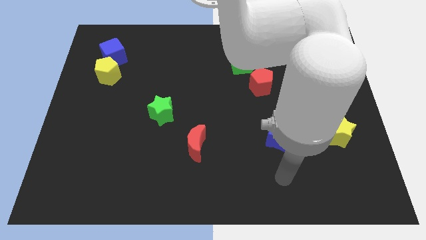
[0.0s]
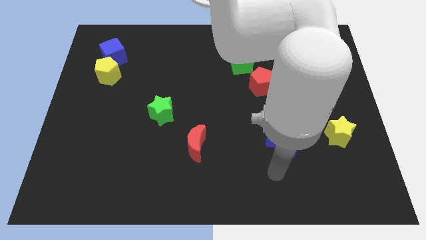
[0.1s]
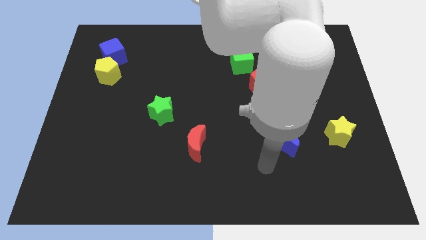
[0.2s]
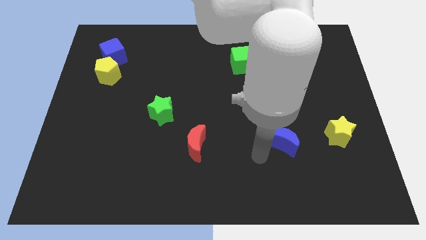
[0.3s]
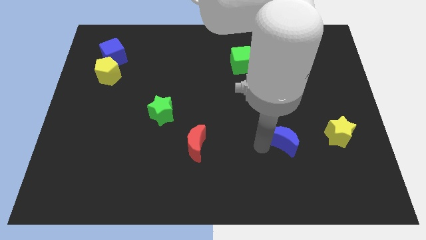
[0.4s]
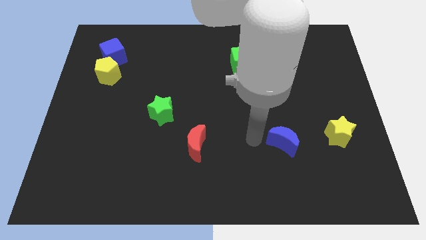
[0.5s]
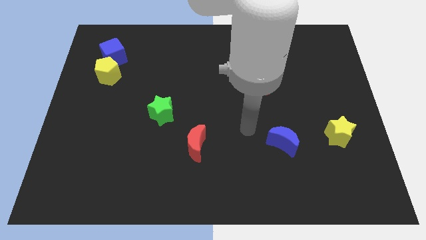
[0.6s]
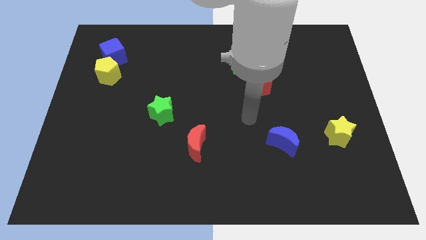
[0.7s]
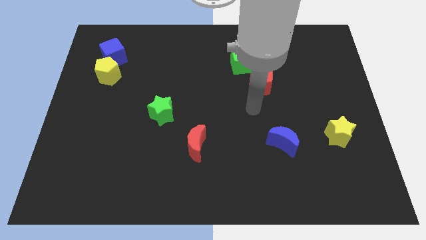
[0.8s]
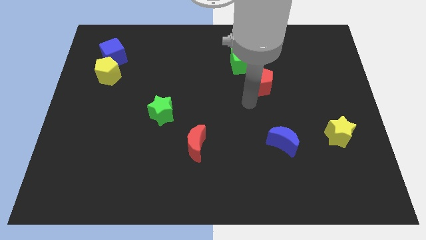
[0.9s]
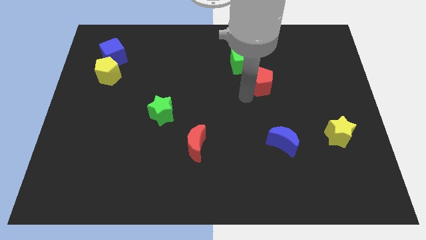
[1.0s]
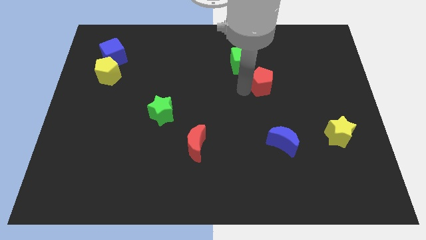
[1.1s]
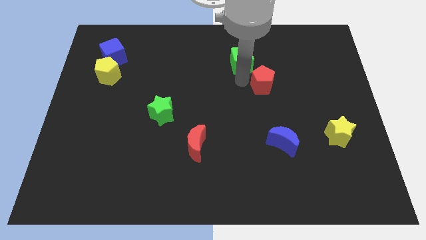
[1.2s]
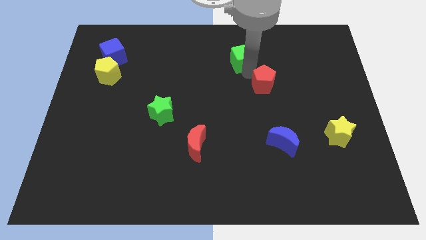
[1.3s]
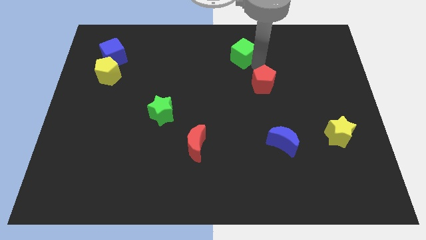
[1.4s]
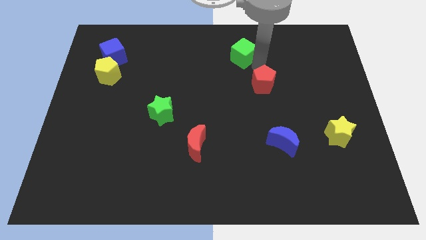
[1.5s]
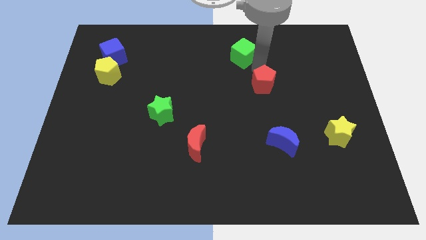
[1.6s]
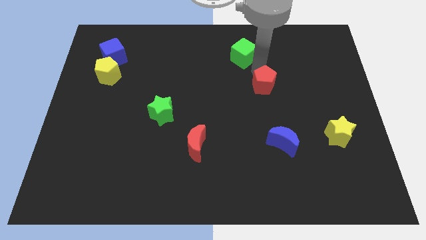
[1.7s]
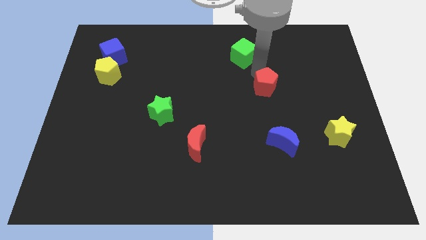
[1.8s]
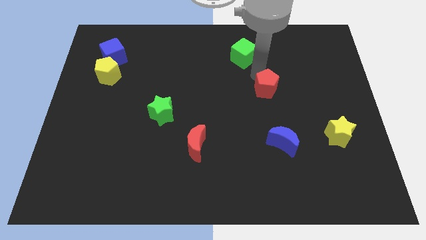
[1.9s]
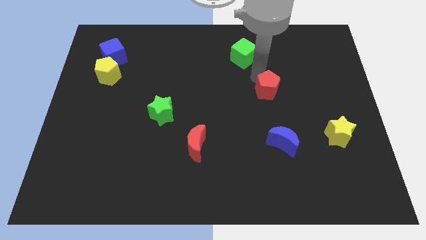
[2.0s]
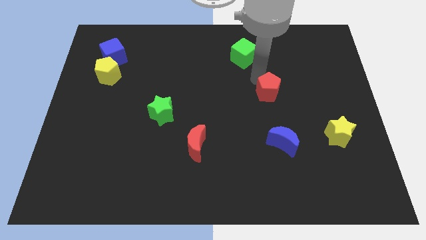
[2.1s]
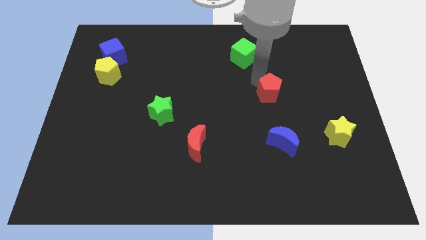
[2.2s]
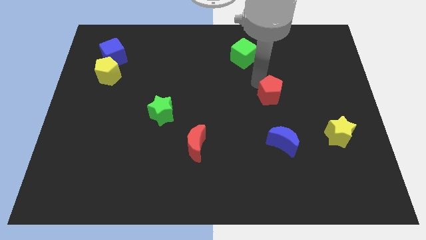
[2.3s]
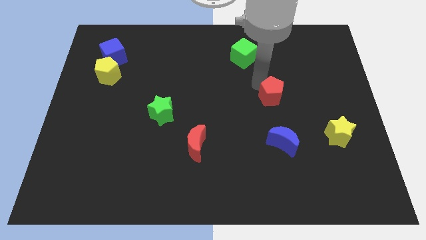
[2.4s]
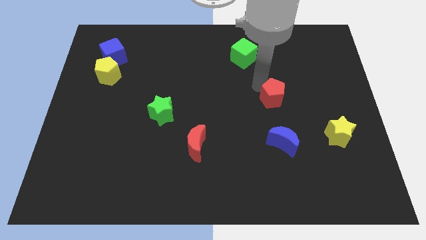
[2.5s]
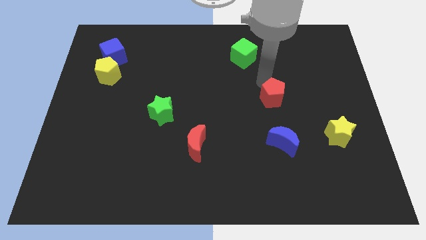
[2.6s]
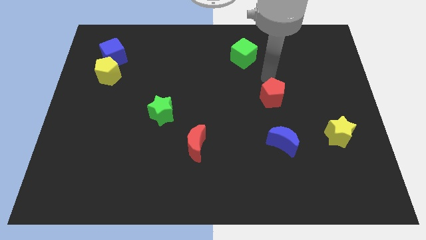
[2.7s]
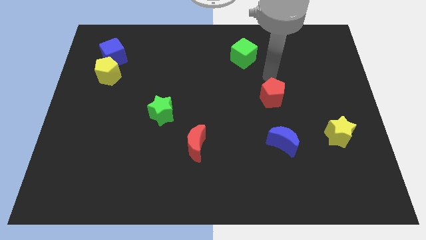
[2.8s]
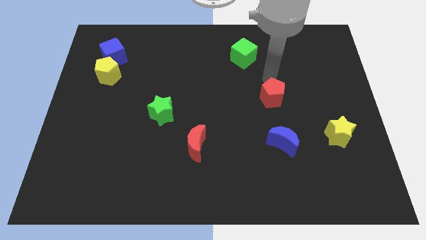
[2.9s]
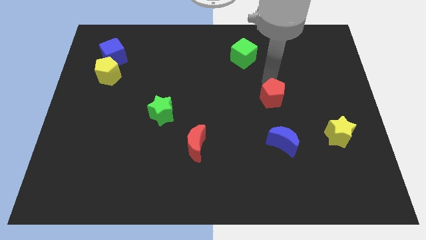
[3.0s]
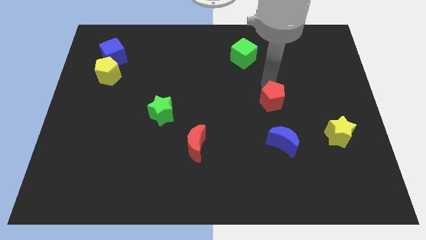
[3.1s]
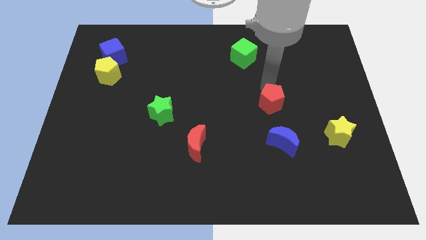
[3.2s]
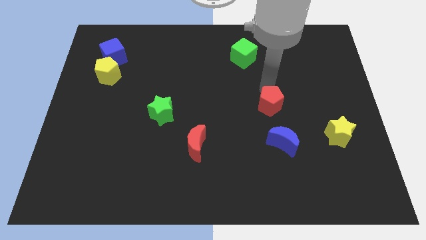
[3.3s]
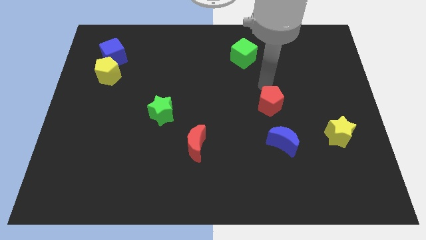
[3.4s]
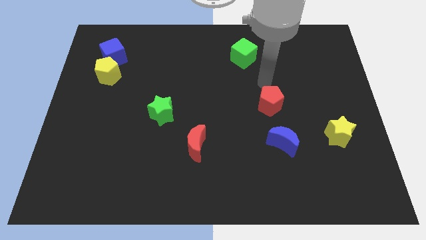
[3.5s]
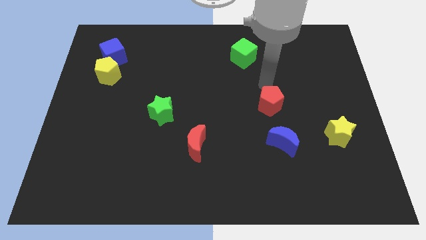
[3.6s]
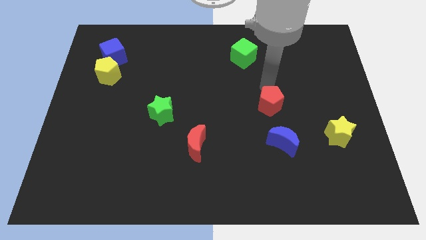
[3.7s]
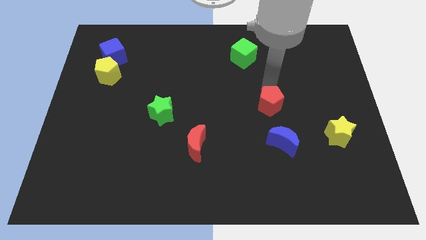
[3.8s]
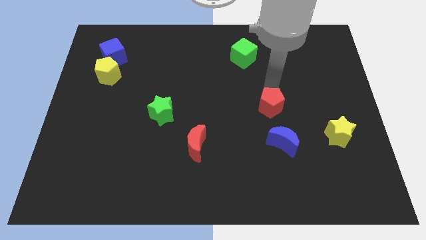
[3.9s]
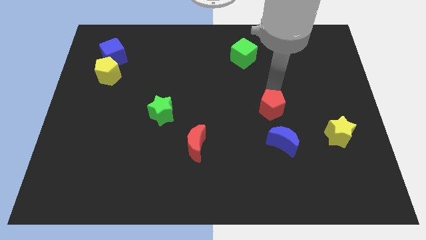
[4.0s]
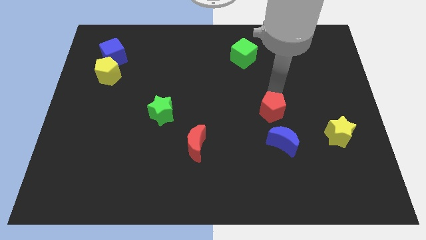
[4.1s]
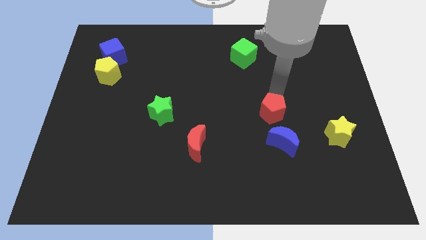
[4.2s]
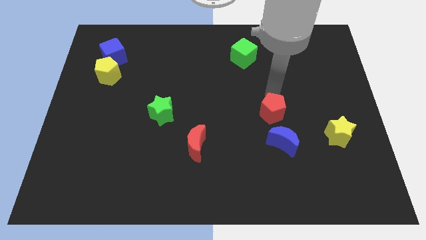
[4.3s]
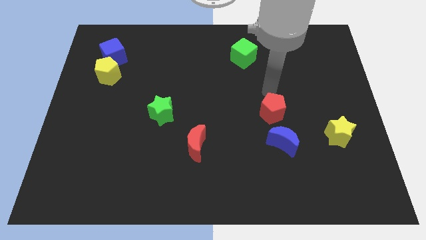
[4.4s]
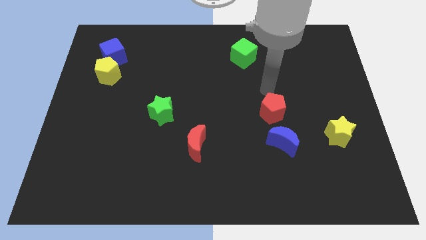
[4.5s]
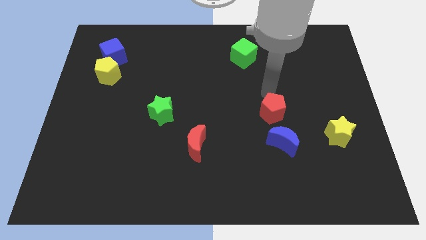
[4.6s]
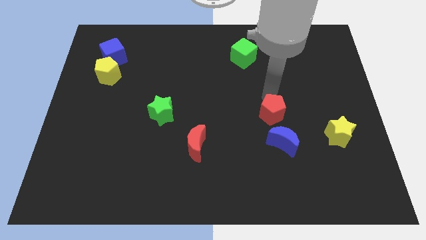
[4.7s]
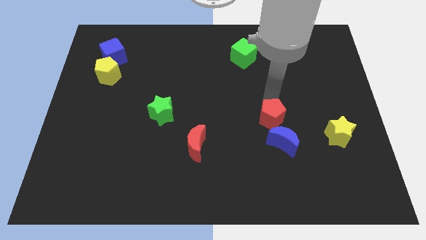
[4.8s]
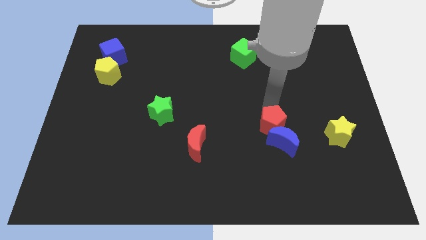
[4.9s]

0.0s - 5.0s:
put the red pentagon next to the blue moon

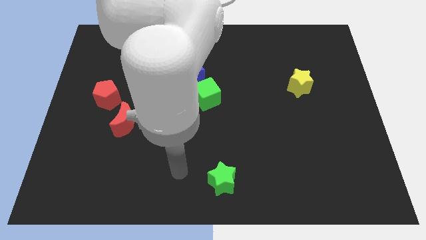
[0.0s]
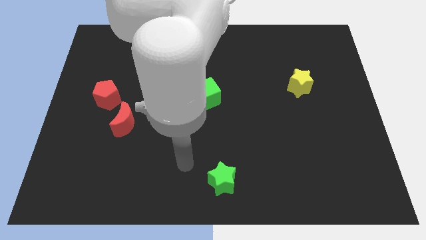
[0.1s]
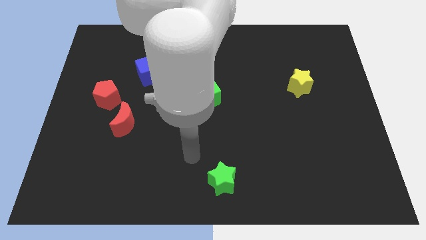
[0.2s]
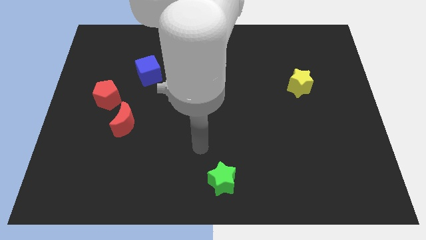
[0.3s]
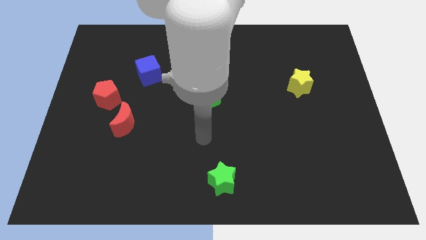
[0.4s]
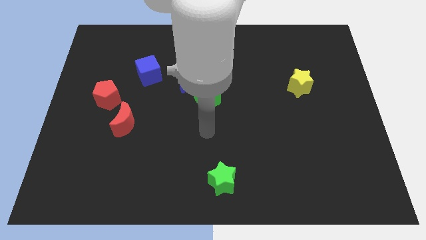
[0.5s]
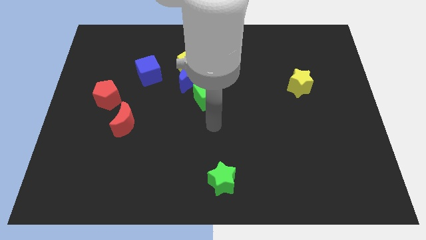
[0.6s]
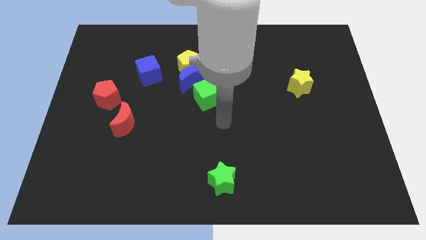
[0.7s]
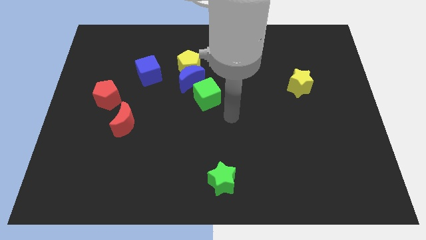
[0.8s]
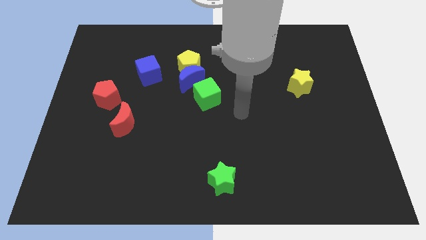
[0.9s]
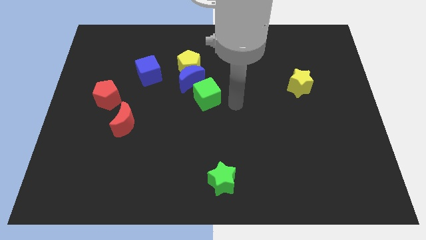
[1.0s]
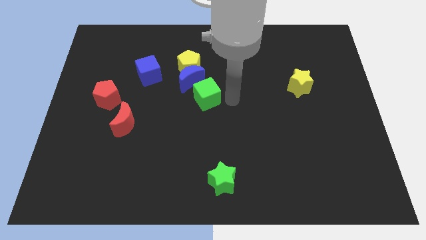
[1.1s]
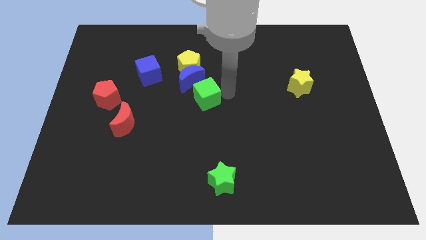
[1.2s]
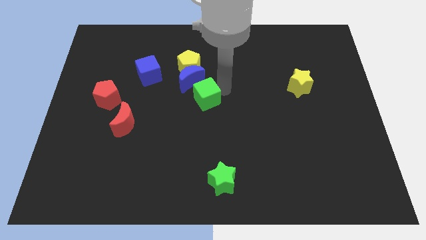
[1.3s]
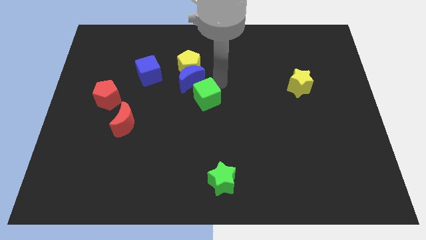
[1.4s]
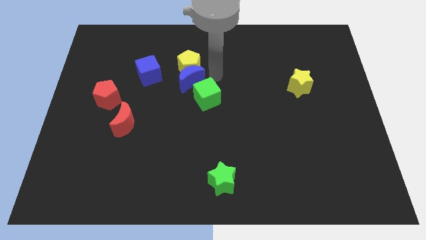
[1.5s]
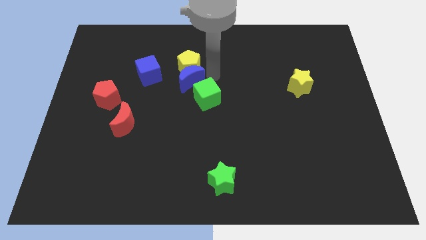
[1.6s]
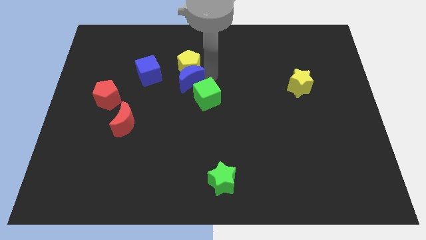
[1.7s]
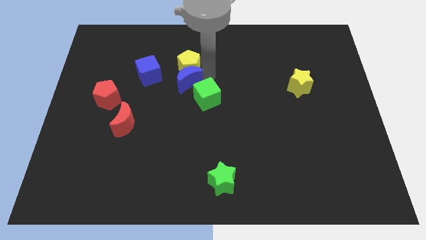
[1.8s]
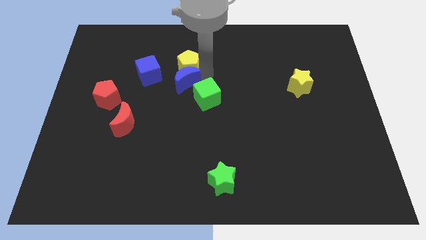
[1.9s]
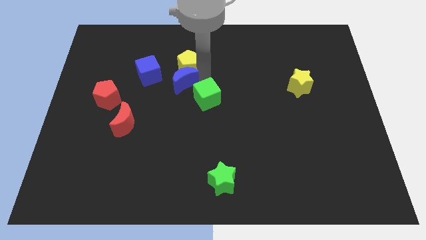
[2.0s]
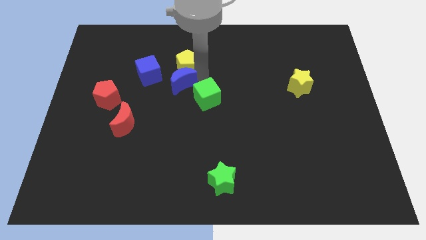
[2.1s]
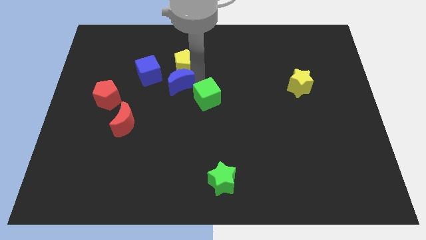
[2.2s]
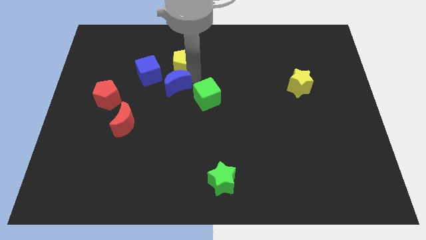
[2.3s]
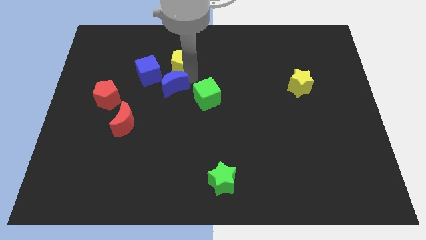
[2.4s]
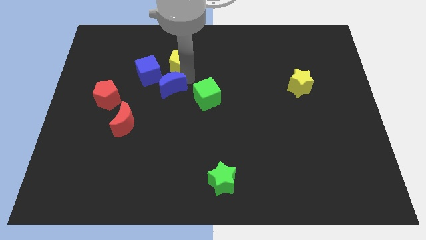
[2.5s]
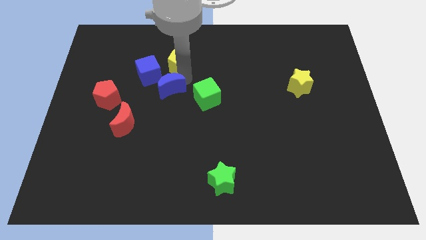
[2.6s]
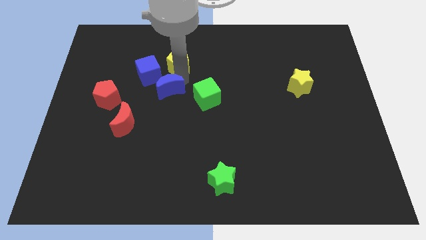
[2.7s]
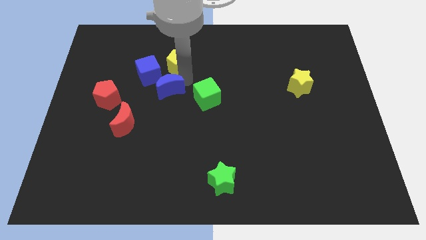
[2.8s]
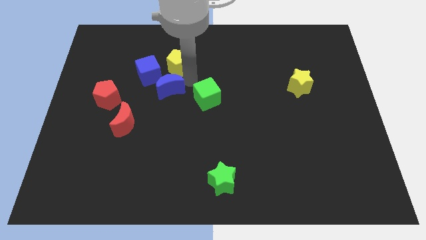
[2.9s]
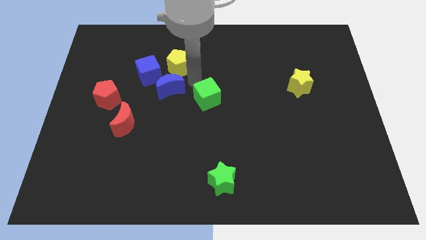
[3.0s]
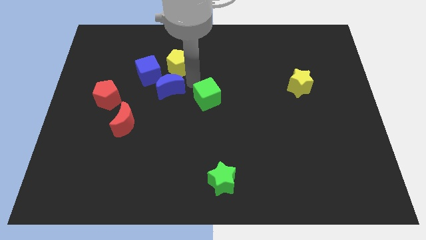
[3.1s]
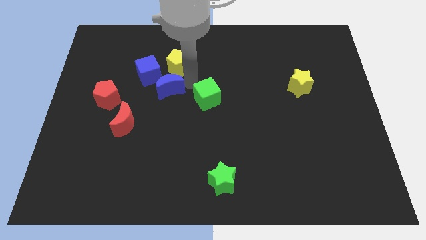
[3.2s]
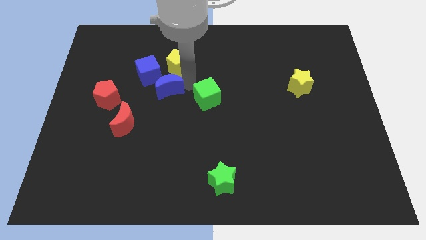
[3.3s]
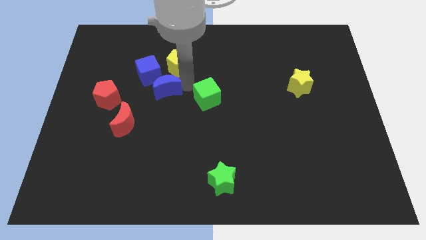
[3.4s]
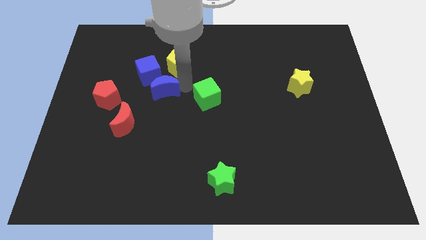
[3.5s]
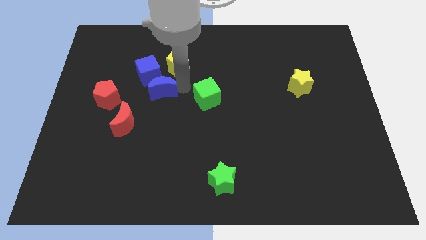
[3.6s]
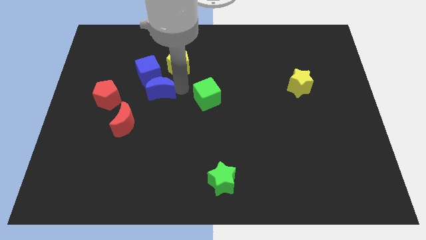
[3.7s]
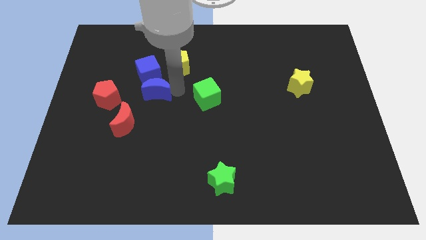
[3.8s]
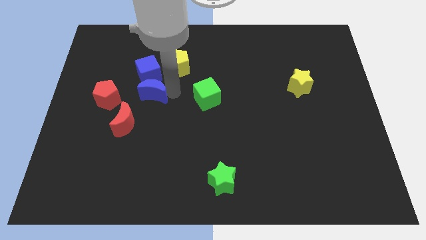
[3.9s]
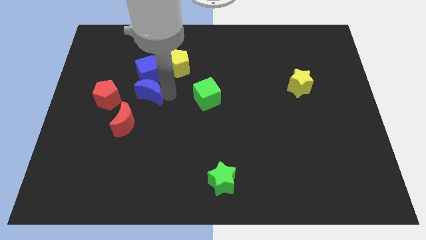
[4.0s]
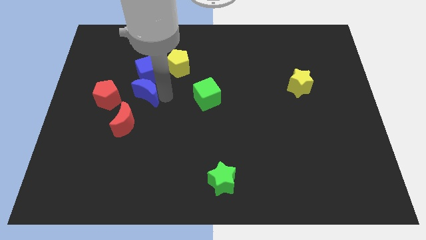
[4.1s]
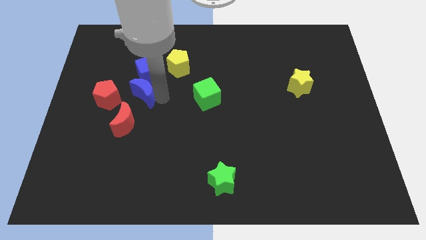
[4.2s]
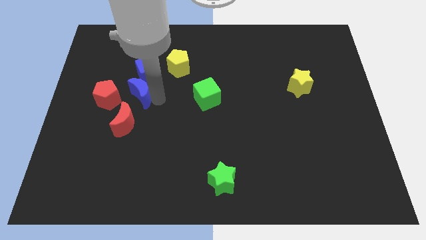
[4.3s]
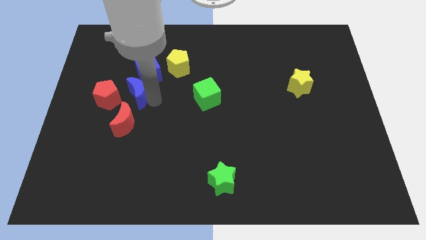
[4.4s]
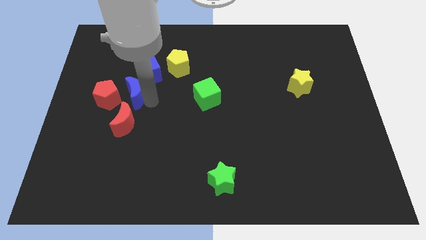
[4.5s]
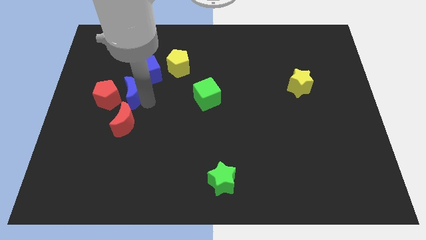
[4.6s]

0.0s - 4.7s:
move the blue moon to the red pentagon
